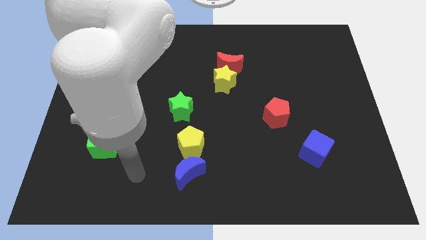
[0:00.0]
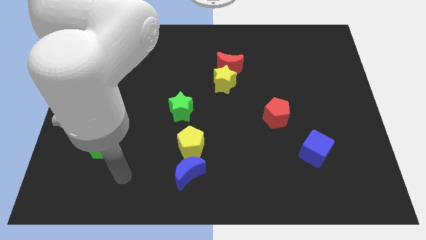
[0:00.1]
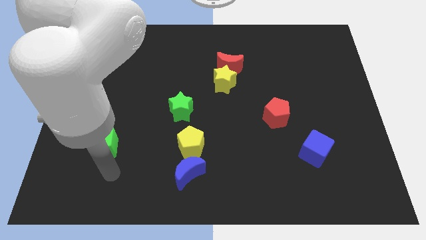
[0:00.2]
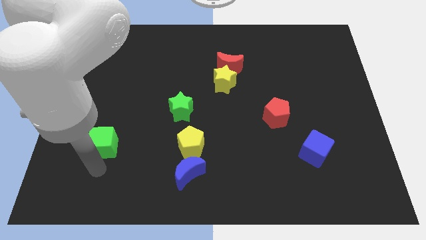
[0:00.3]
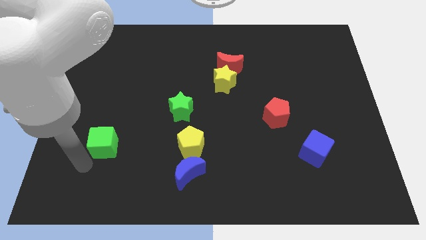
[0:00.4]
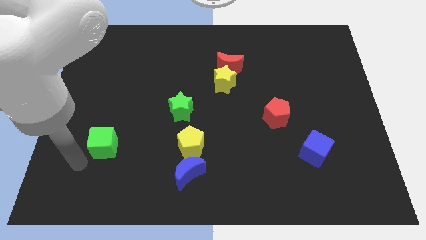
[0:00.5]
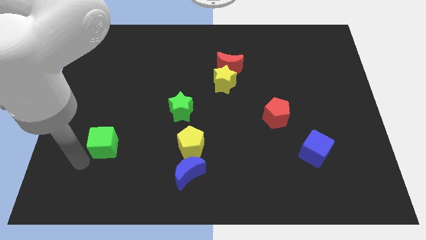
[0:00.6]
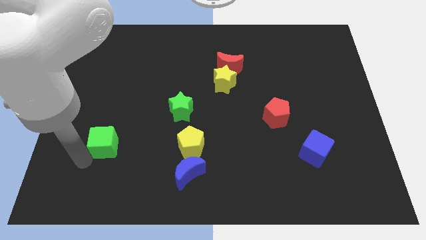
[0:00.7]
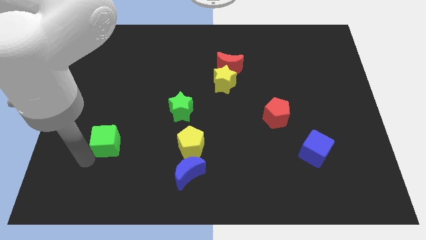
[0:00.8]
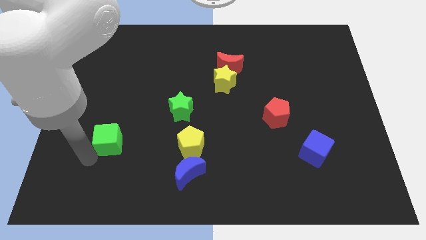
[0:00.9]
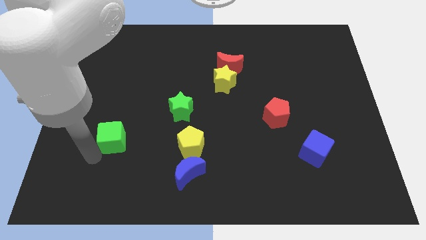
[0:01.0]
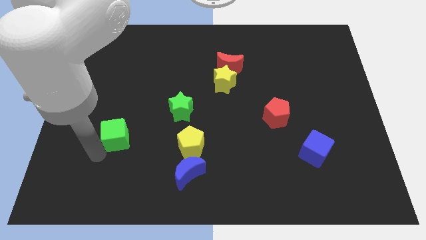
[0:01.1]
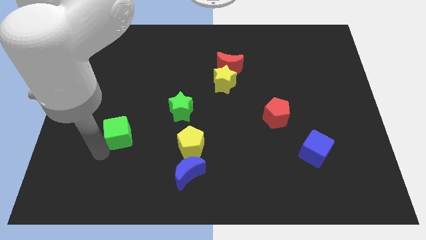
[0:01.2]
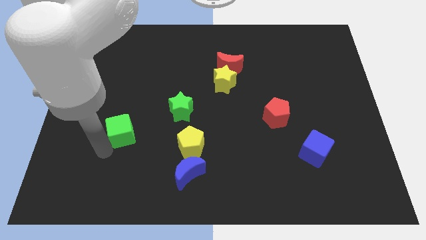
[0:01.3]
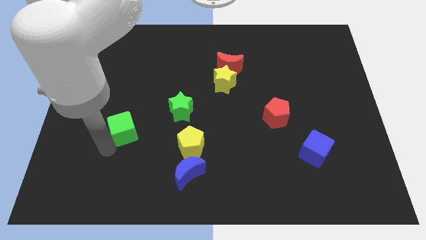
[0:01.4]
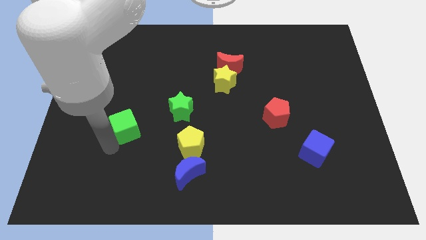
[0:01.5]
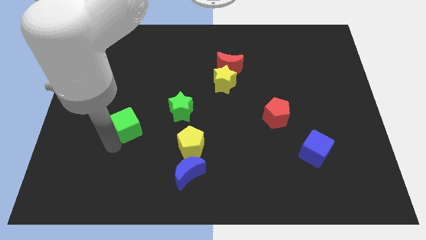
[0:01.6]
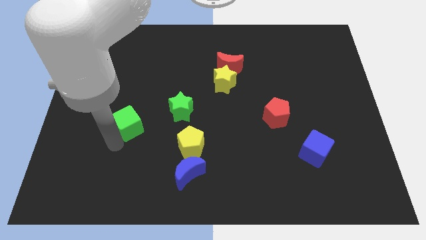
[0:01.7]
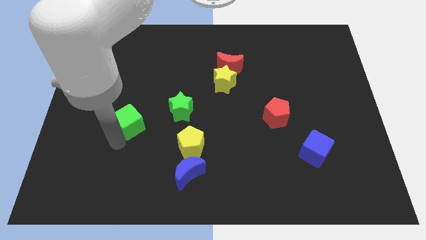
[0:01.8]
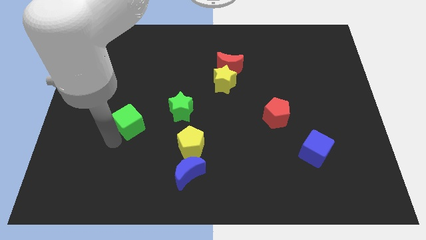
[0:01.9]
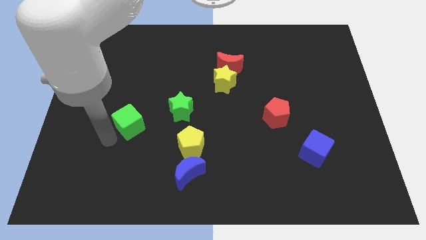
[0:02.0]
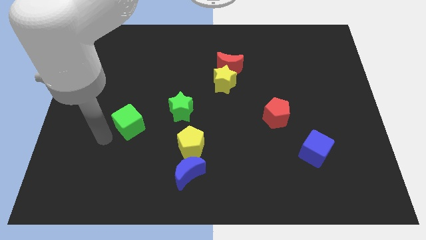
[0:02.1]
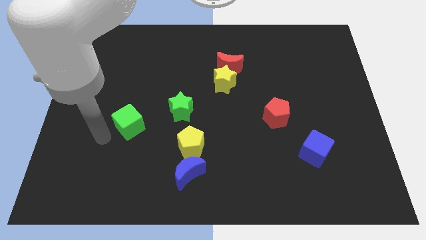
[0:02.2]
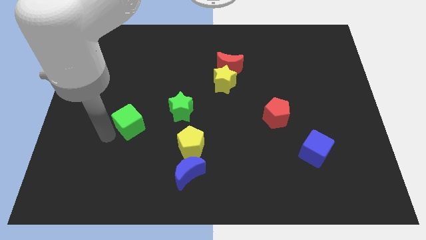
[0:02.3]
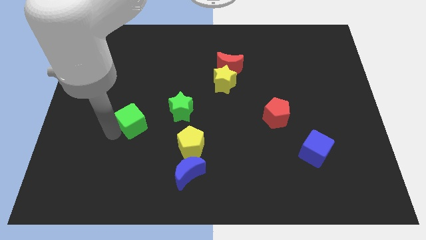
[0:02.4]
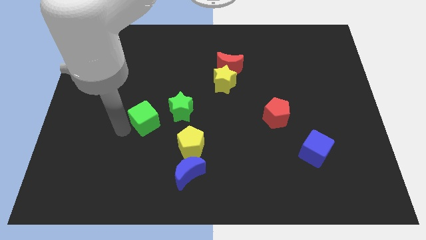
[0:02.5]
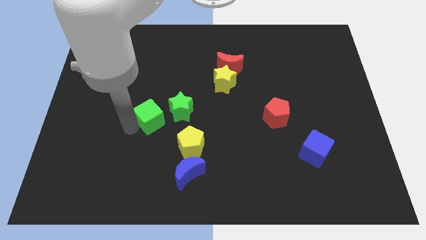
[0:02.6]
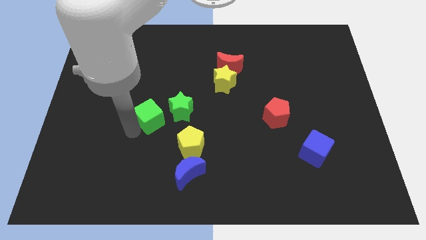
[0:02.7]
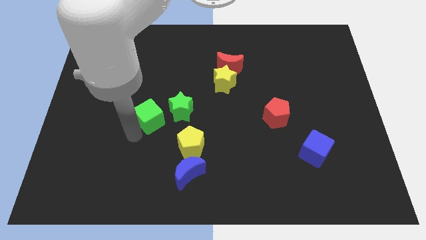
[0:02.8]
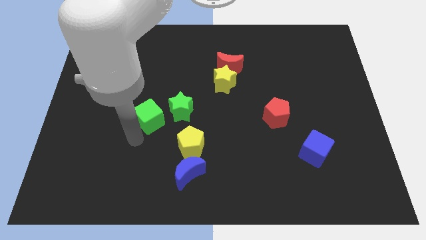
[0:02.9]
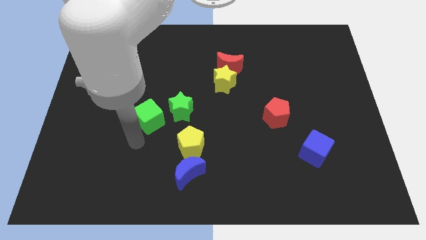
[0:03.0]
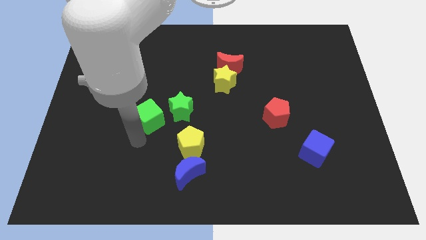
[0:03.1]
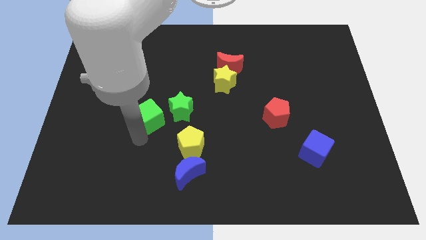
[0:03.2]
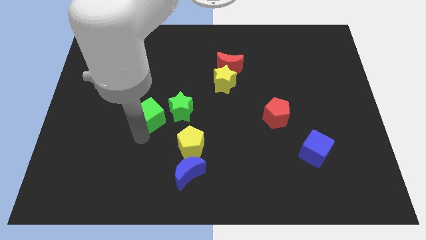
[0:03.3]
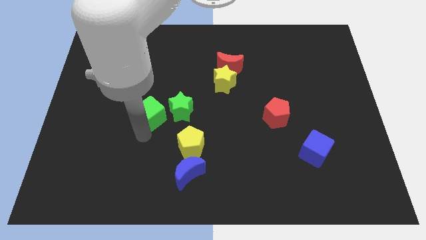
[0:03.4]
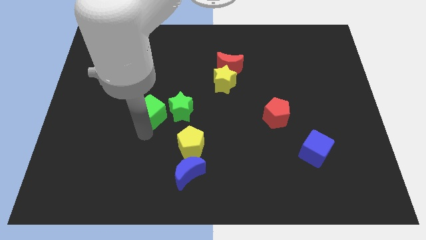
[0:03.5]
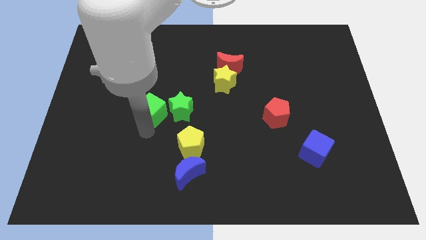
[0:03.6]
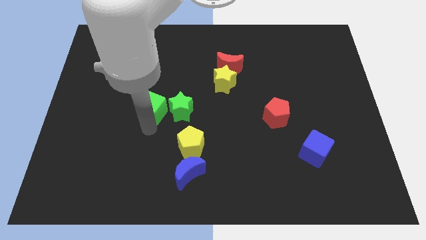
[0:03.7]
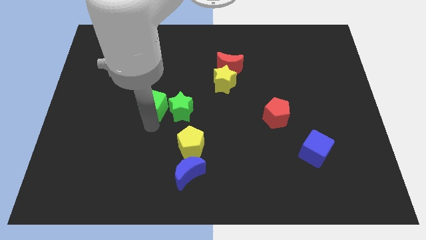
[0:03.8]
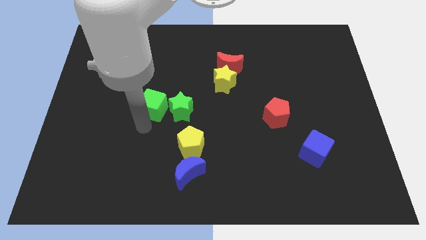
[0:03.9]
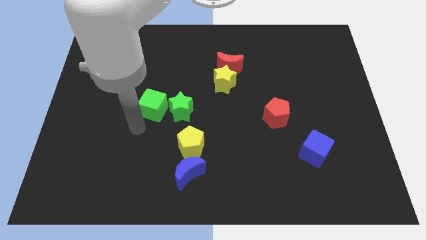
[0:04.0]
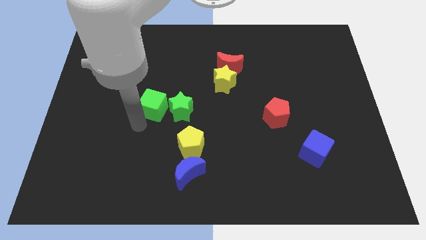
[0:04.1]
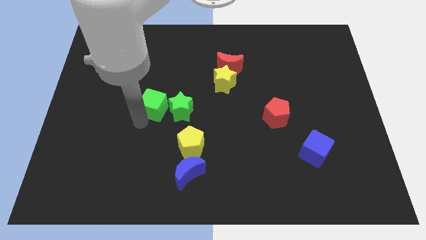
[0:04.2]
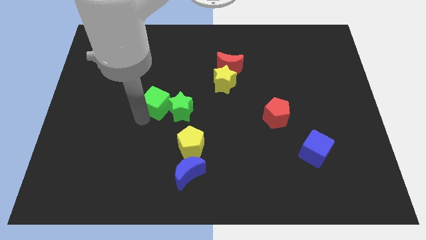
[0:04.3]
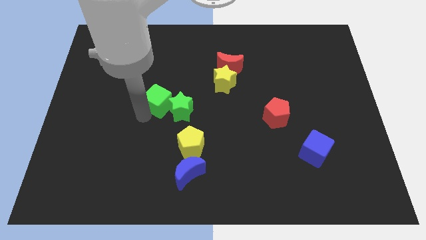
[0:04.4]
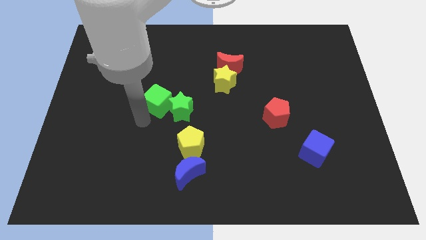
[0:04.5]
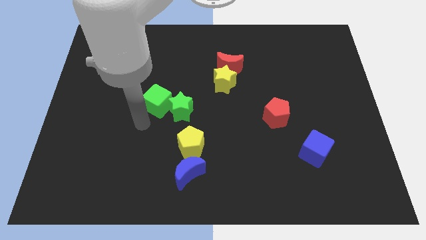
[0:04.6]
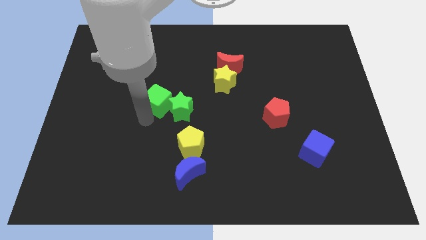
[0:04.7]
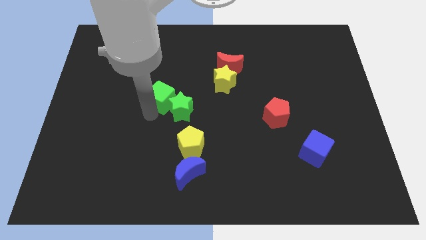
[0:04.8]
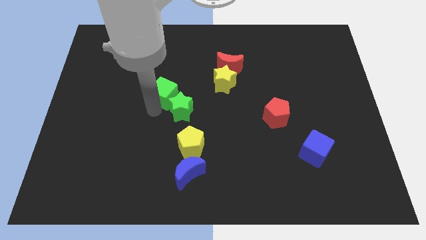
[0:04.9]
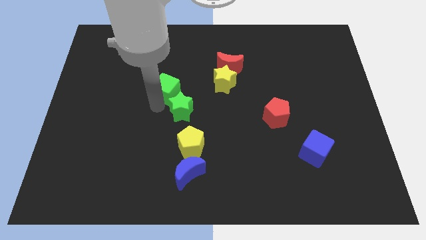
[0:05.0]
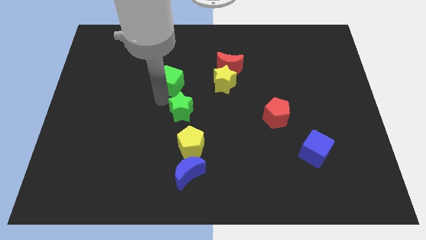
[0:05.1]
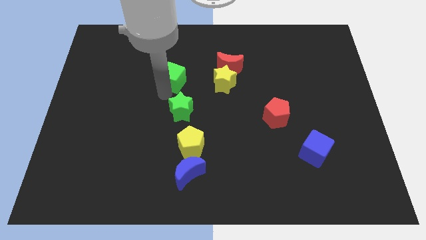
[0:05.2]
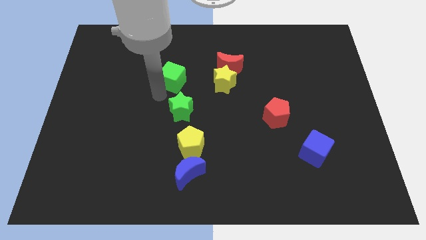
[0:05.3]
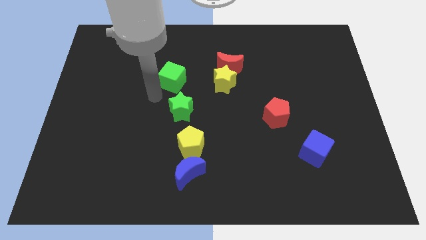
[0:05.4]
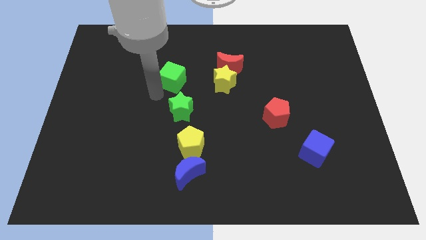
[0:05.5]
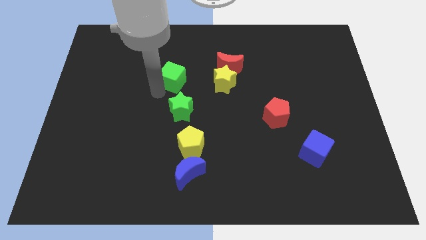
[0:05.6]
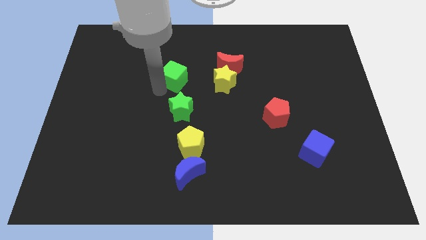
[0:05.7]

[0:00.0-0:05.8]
move the green cube to the left side of the red moon

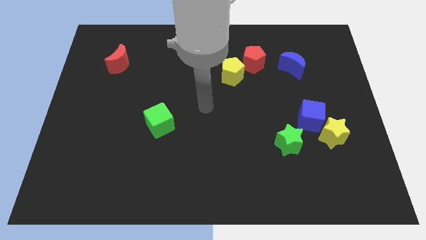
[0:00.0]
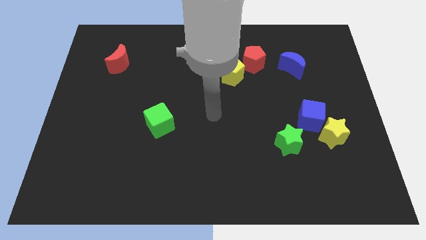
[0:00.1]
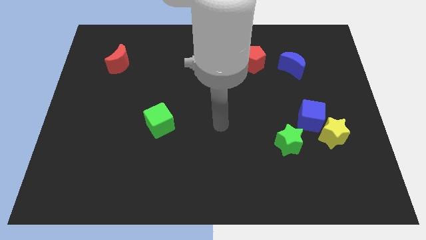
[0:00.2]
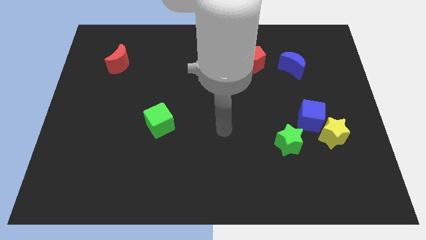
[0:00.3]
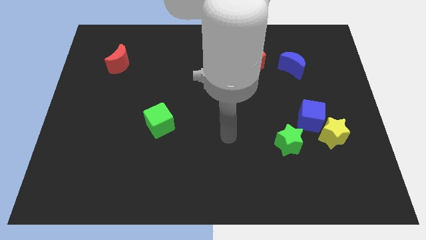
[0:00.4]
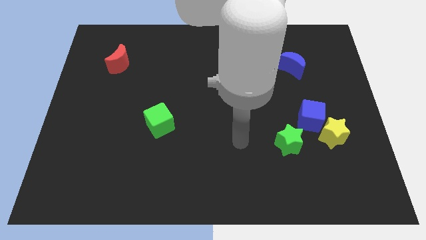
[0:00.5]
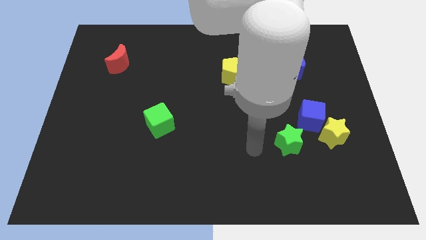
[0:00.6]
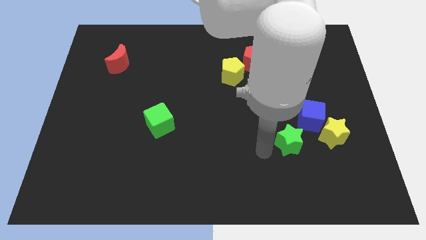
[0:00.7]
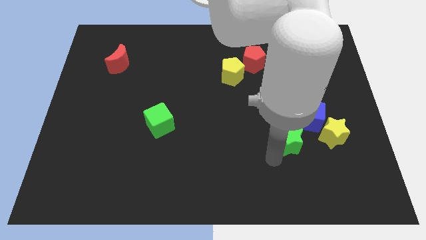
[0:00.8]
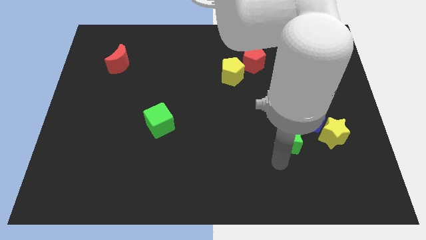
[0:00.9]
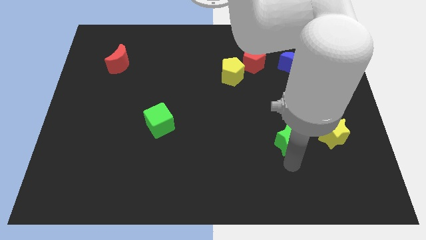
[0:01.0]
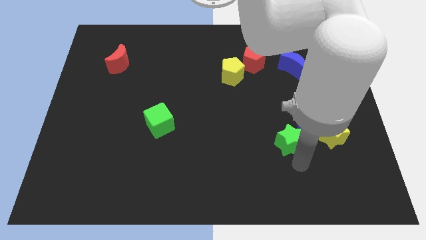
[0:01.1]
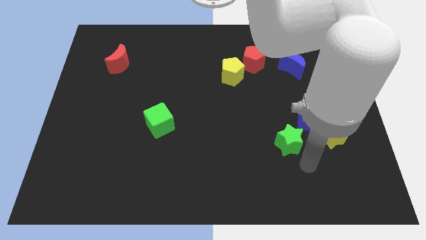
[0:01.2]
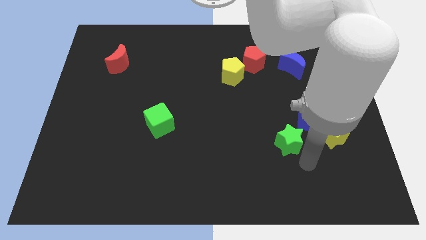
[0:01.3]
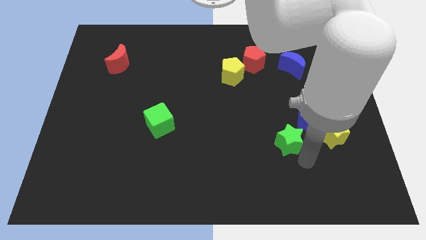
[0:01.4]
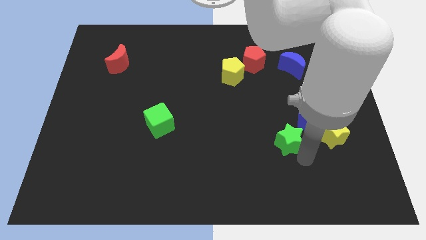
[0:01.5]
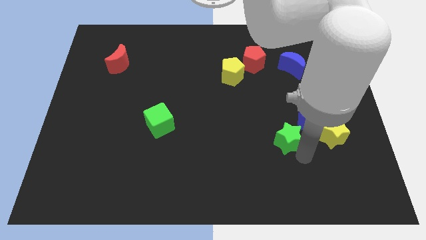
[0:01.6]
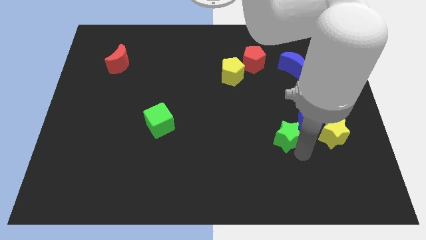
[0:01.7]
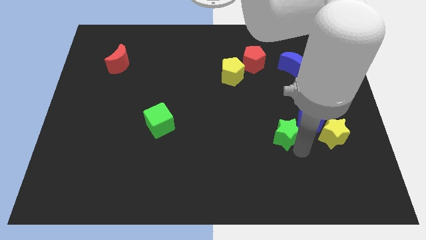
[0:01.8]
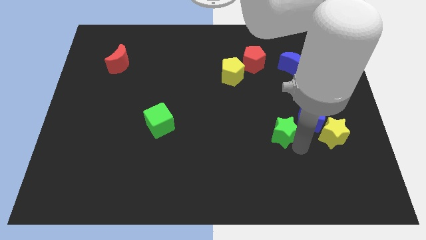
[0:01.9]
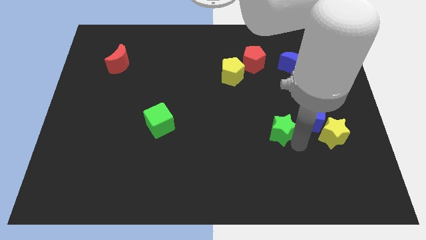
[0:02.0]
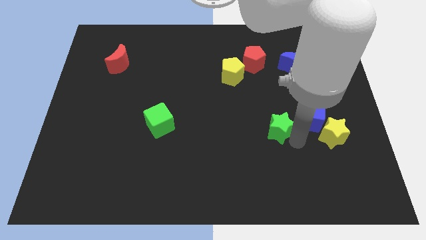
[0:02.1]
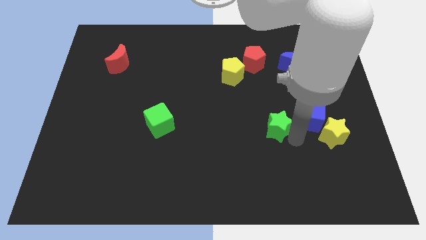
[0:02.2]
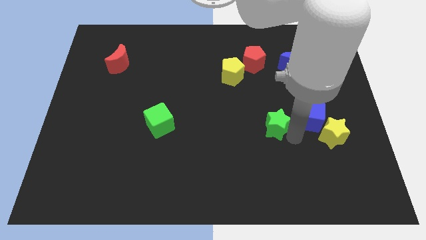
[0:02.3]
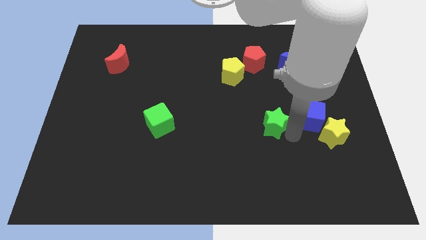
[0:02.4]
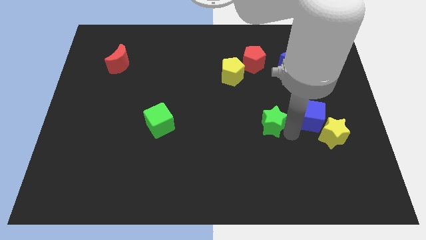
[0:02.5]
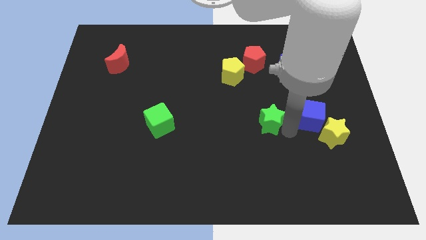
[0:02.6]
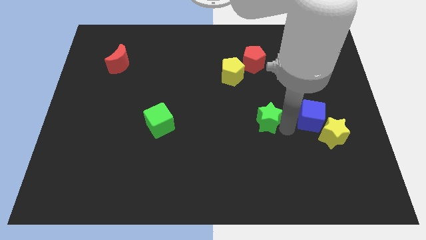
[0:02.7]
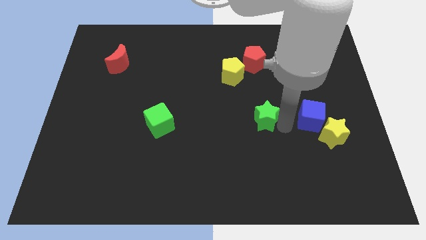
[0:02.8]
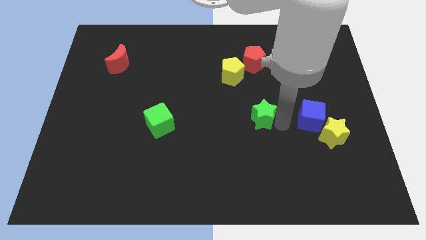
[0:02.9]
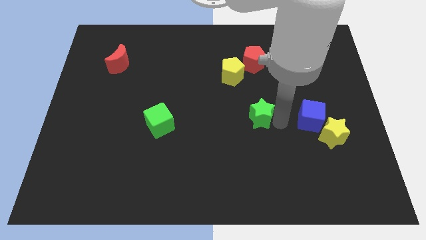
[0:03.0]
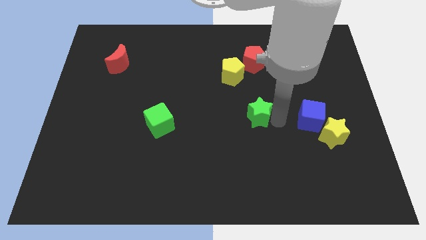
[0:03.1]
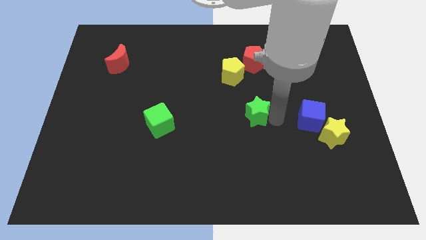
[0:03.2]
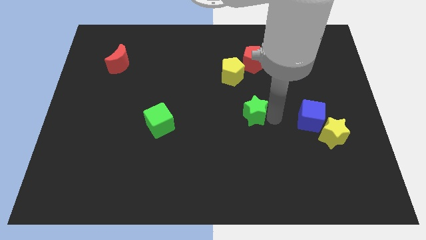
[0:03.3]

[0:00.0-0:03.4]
slide the green star to the bottom side of the yellow pentagon
